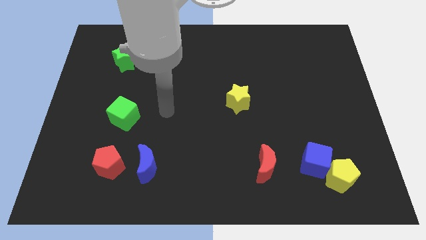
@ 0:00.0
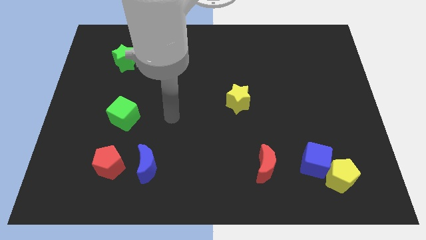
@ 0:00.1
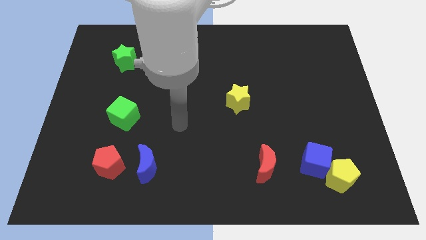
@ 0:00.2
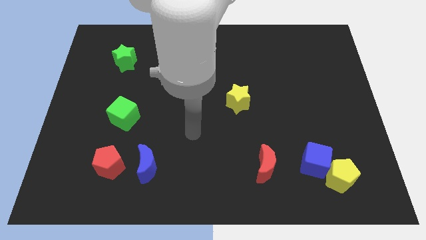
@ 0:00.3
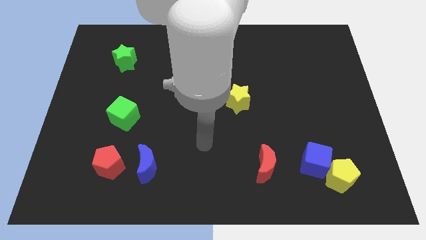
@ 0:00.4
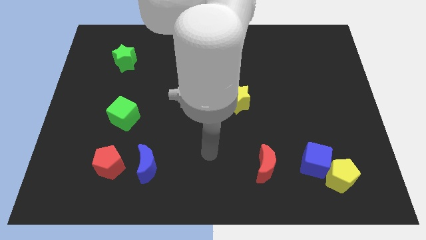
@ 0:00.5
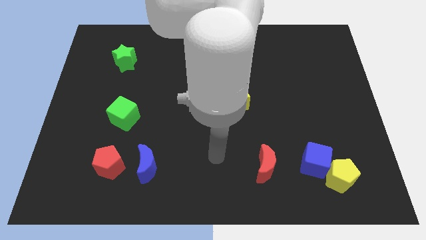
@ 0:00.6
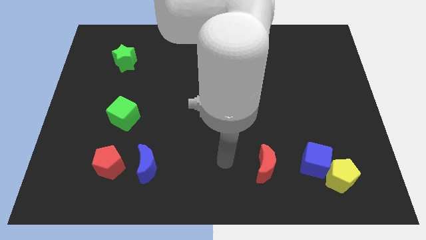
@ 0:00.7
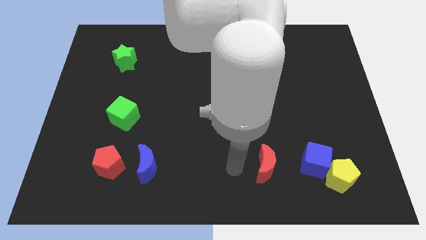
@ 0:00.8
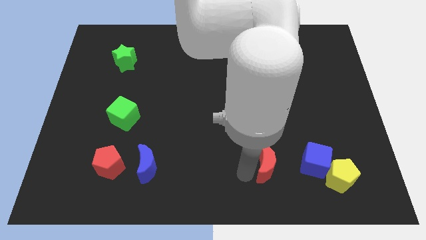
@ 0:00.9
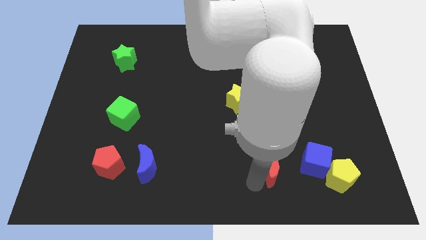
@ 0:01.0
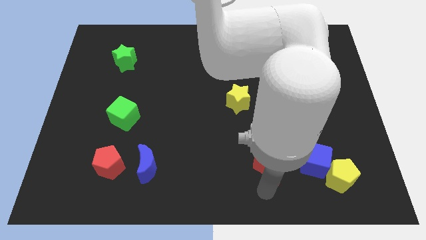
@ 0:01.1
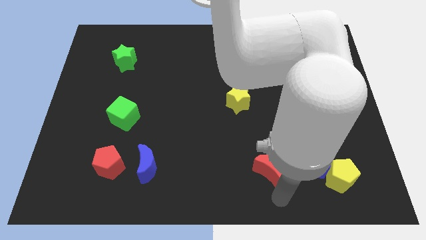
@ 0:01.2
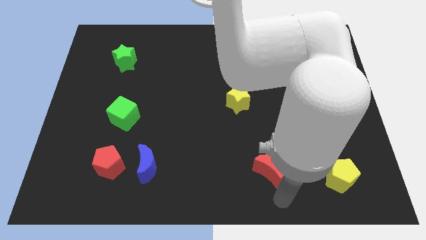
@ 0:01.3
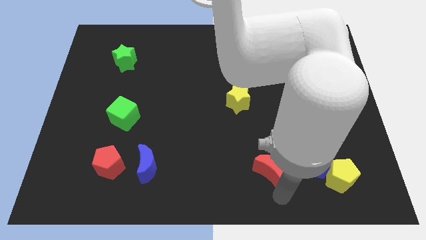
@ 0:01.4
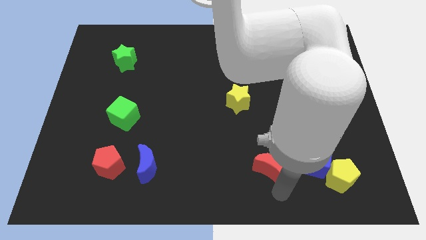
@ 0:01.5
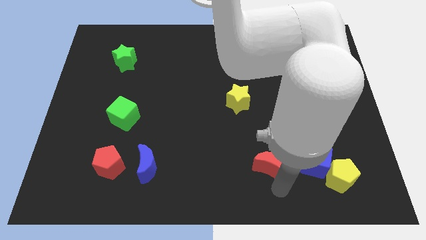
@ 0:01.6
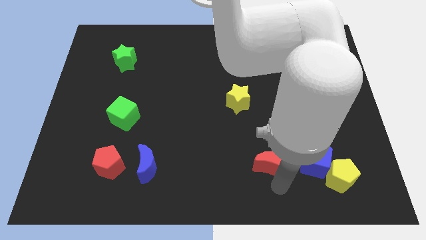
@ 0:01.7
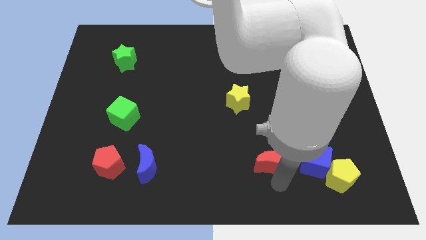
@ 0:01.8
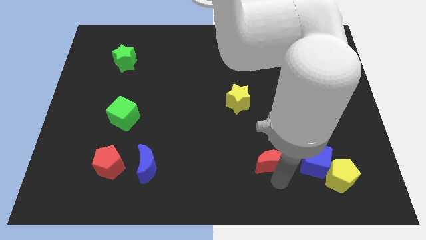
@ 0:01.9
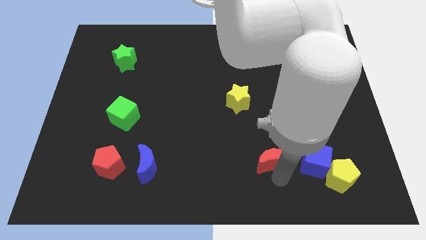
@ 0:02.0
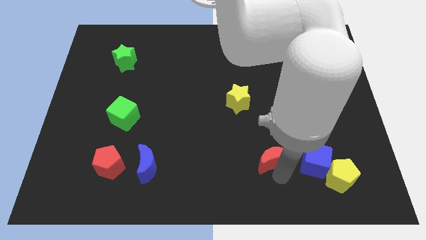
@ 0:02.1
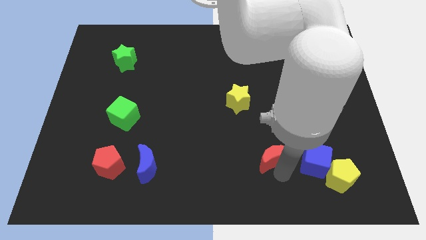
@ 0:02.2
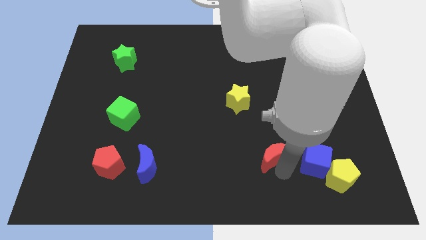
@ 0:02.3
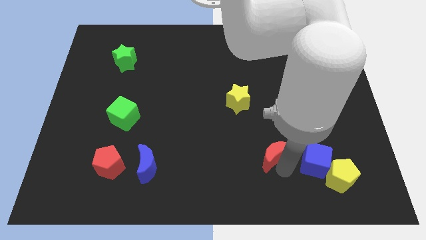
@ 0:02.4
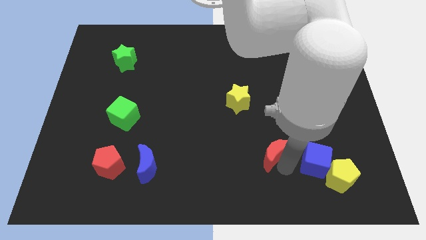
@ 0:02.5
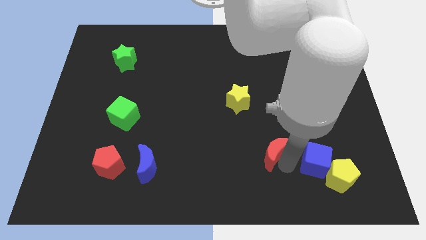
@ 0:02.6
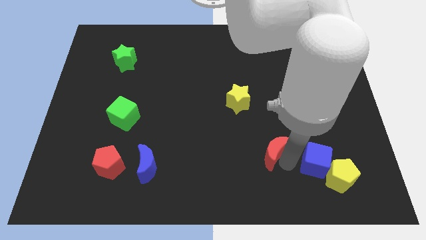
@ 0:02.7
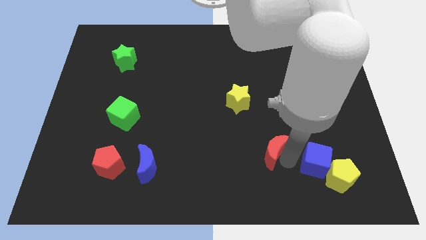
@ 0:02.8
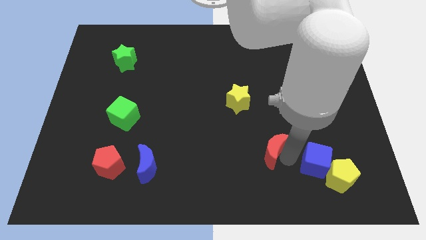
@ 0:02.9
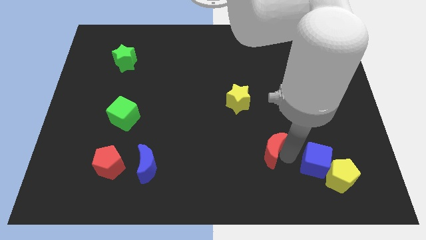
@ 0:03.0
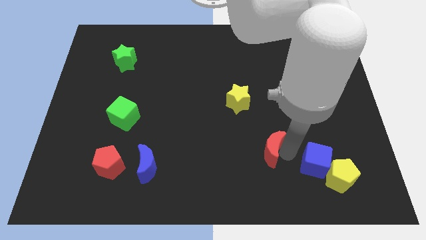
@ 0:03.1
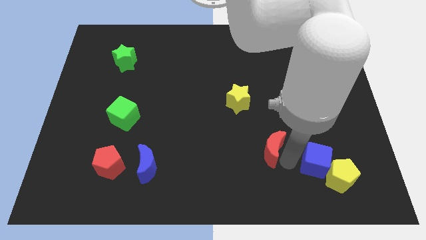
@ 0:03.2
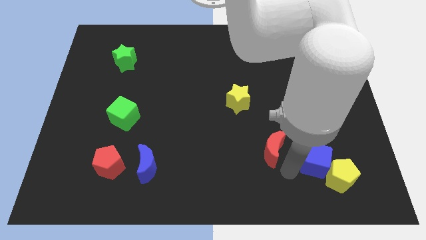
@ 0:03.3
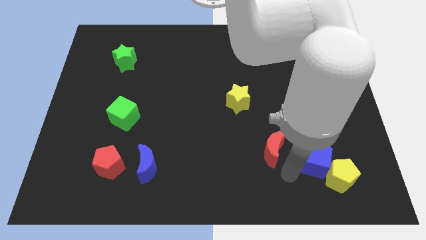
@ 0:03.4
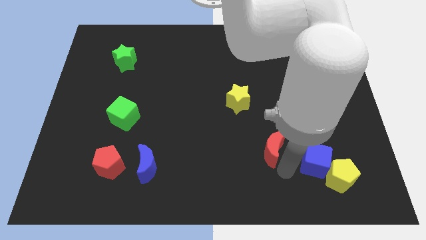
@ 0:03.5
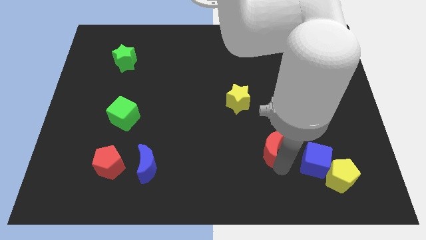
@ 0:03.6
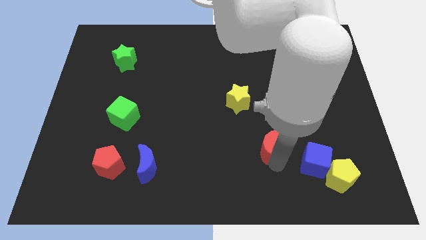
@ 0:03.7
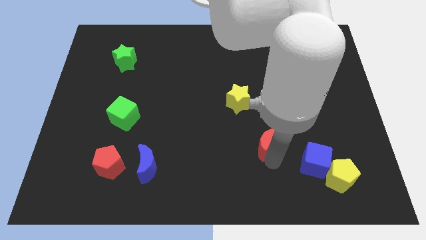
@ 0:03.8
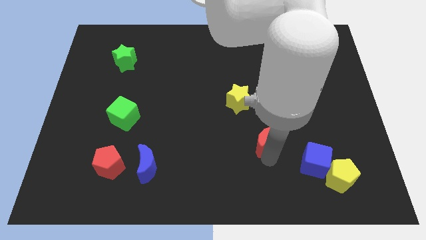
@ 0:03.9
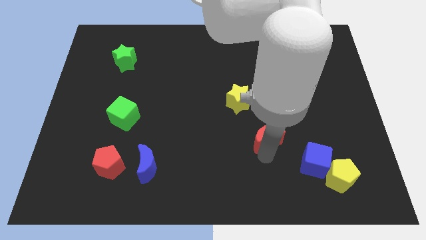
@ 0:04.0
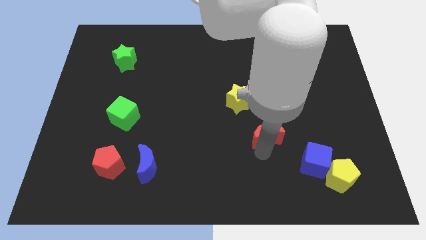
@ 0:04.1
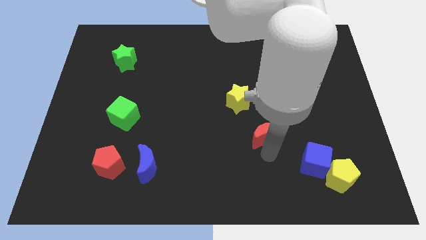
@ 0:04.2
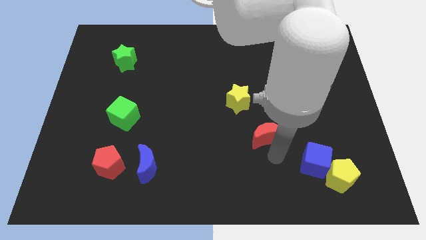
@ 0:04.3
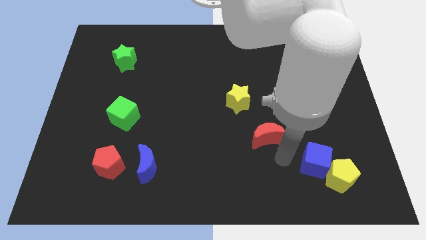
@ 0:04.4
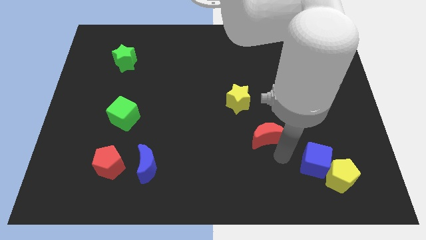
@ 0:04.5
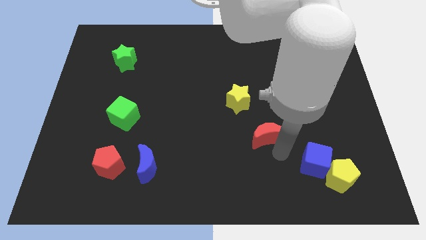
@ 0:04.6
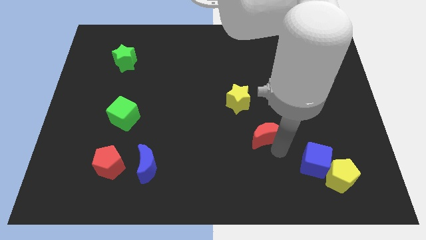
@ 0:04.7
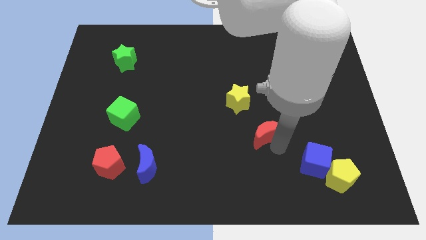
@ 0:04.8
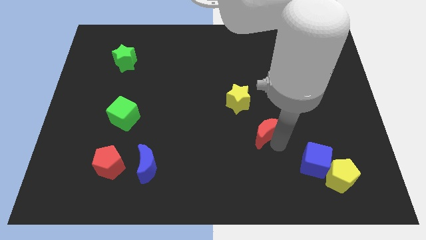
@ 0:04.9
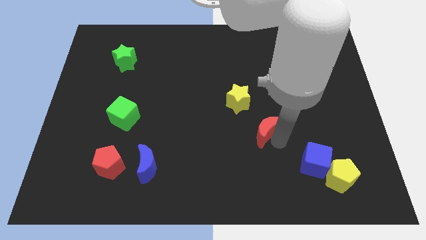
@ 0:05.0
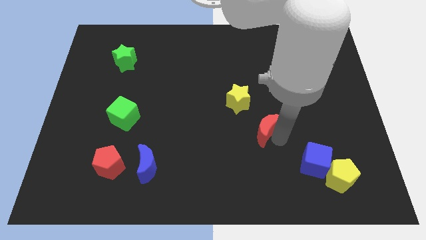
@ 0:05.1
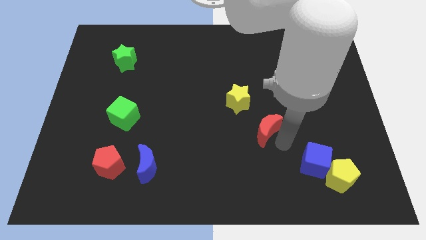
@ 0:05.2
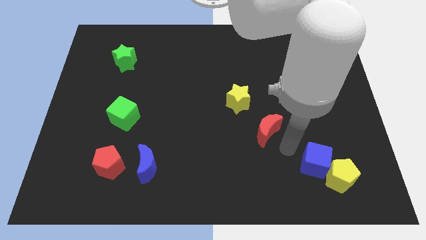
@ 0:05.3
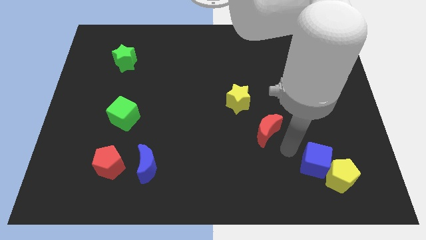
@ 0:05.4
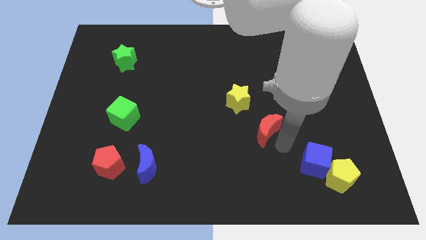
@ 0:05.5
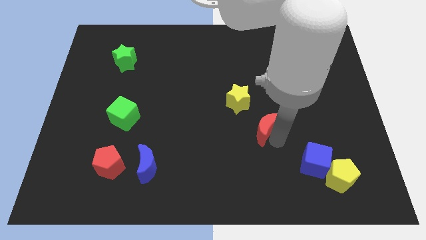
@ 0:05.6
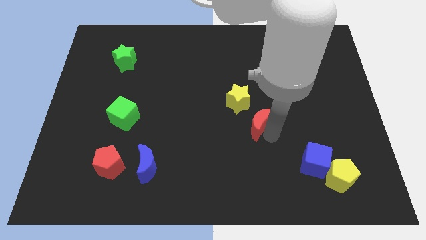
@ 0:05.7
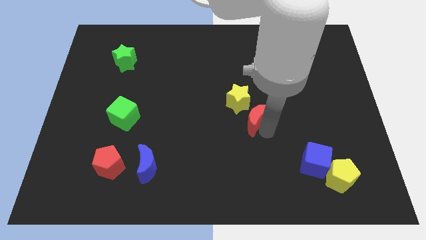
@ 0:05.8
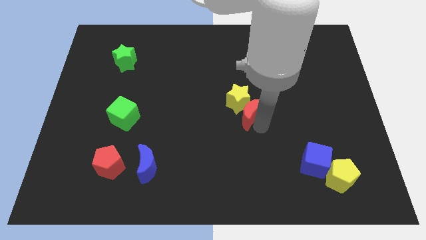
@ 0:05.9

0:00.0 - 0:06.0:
move the red moon towards the yellow star

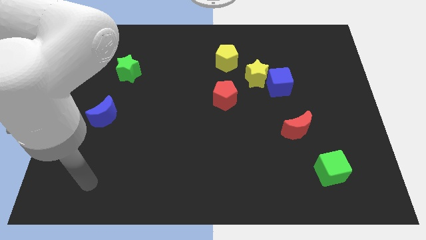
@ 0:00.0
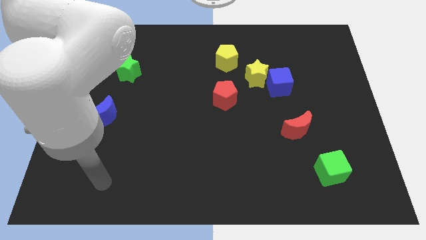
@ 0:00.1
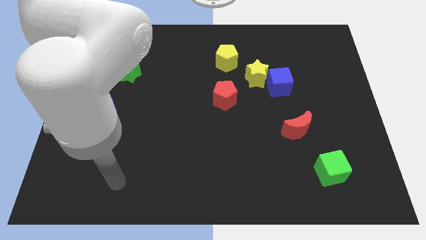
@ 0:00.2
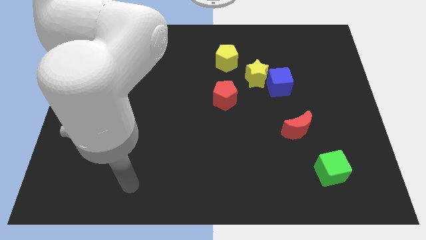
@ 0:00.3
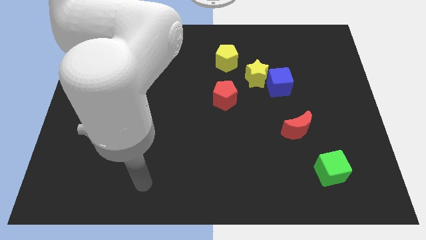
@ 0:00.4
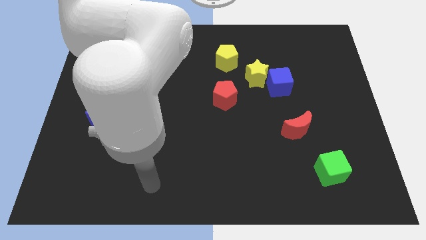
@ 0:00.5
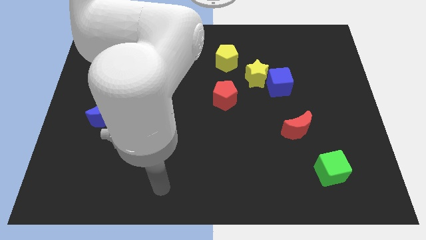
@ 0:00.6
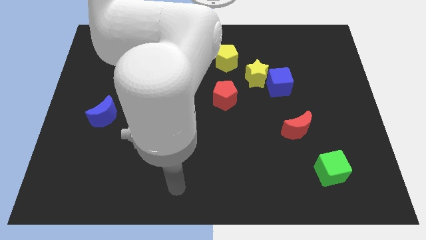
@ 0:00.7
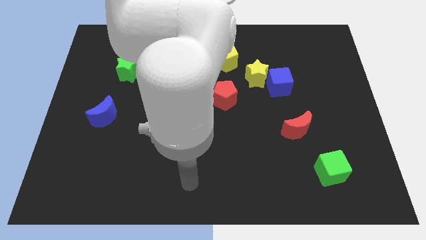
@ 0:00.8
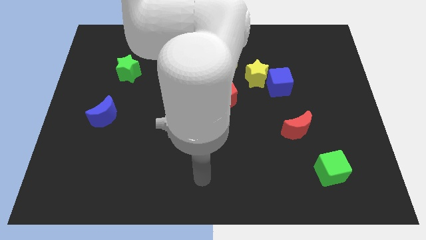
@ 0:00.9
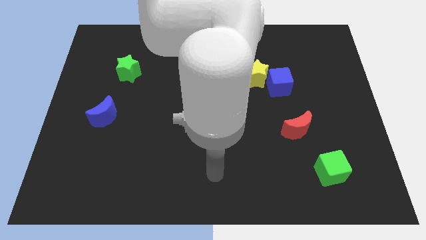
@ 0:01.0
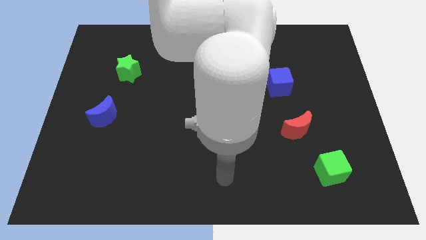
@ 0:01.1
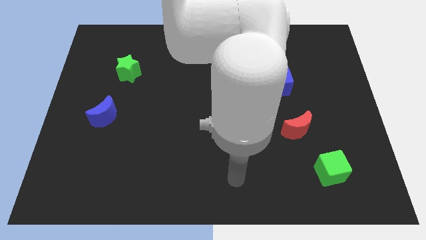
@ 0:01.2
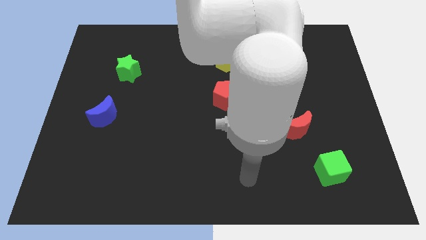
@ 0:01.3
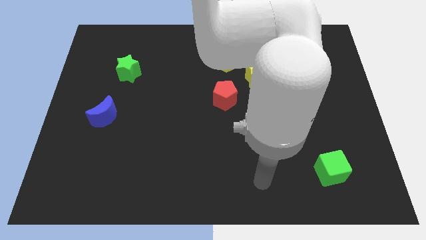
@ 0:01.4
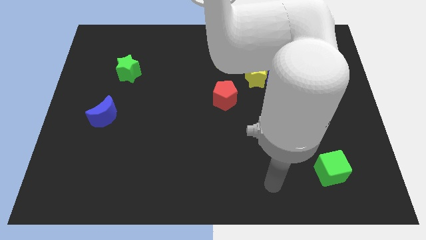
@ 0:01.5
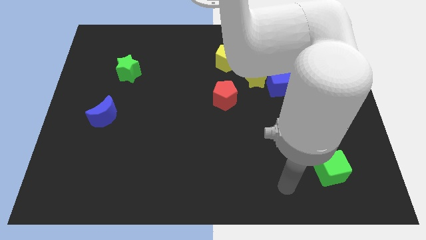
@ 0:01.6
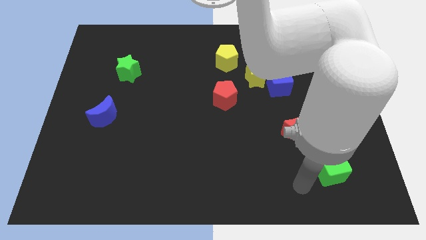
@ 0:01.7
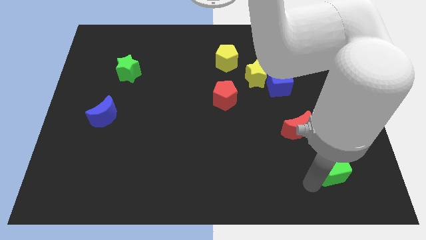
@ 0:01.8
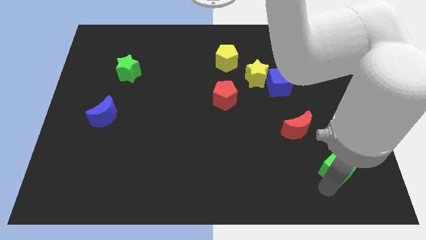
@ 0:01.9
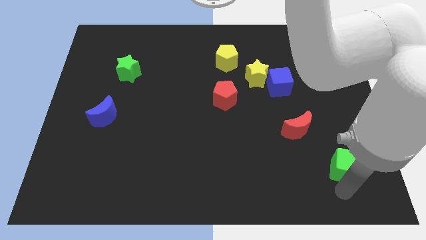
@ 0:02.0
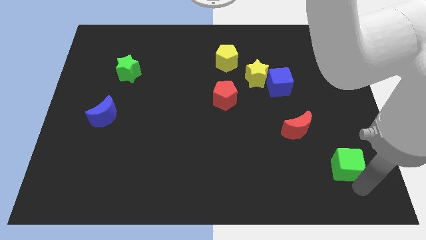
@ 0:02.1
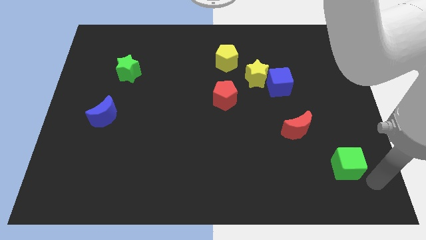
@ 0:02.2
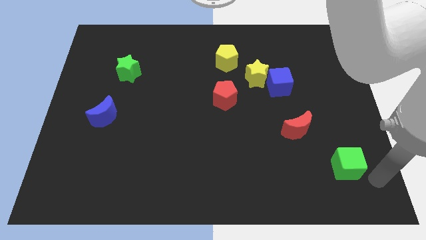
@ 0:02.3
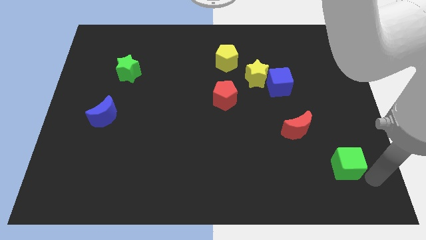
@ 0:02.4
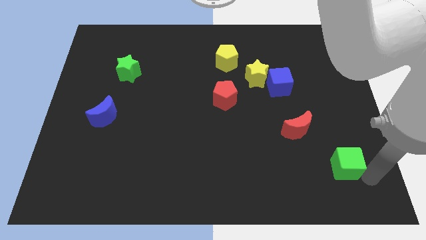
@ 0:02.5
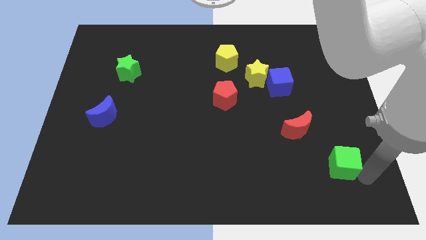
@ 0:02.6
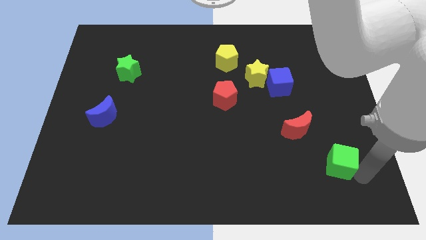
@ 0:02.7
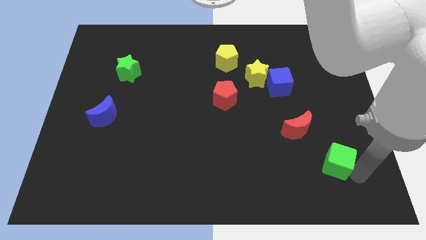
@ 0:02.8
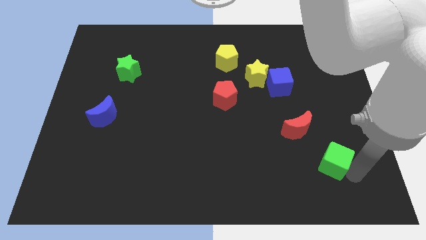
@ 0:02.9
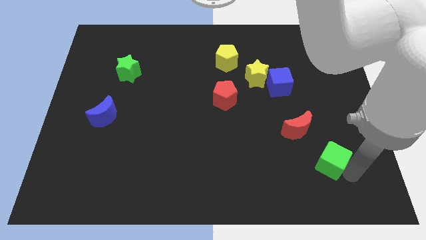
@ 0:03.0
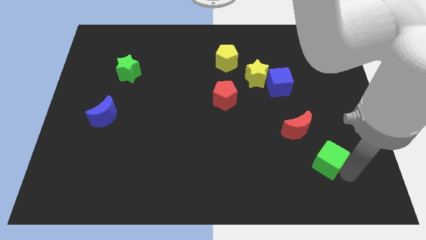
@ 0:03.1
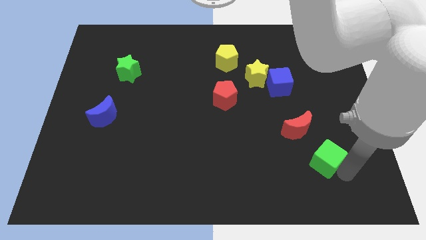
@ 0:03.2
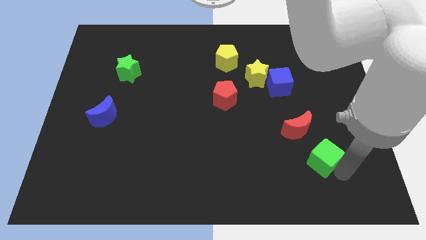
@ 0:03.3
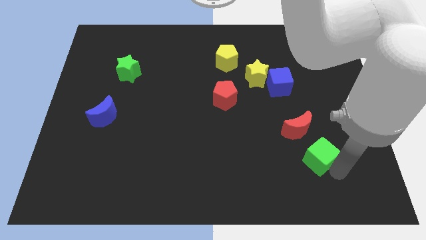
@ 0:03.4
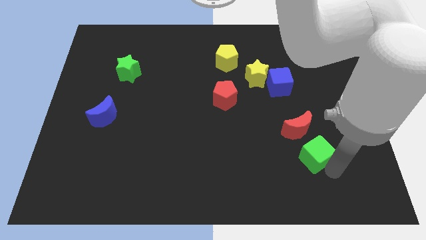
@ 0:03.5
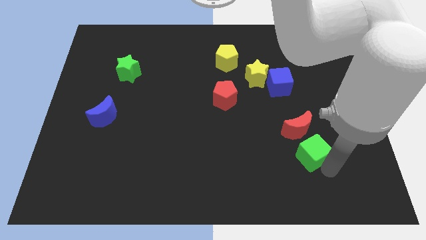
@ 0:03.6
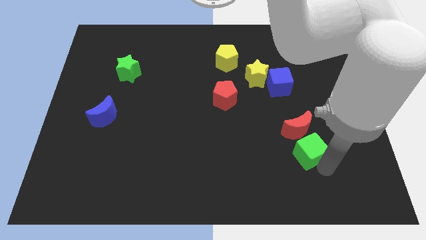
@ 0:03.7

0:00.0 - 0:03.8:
put the green cube towards the red moon
